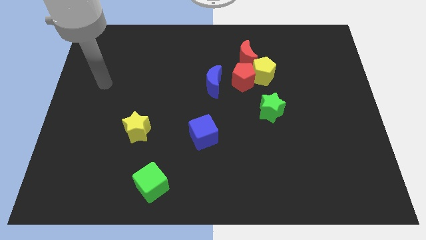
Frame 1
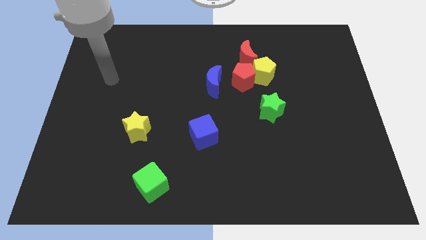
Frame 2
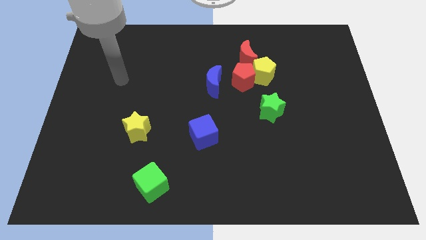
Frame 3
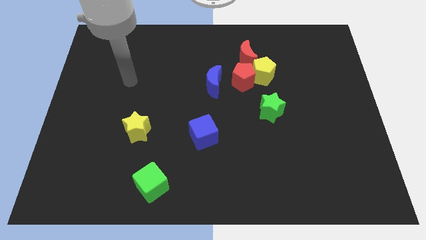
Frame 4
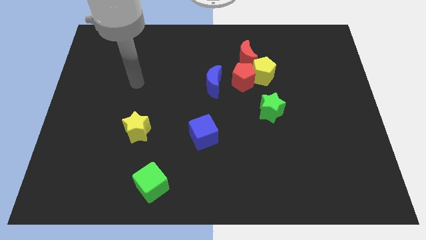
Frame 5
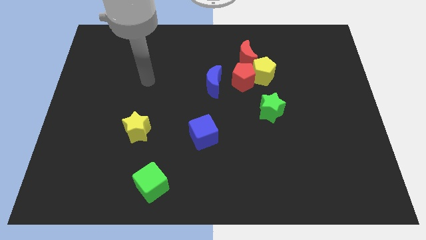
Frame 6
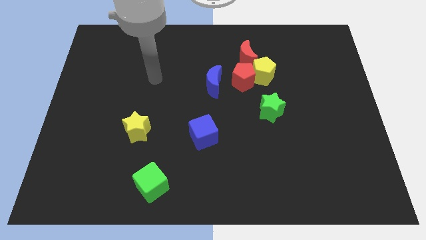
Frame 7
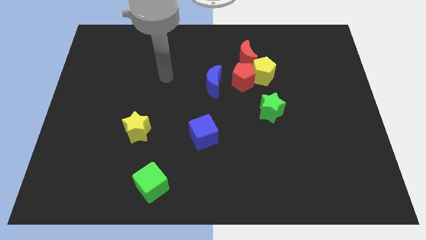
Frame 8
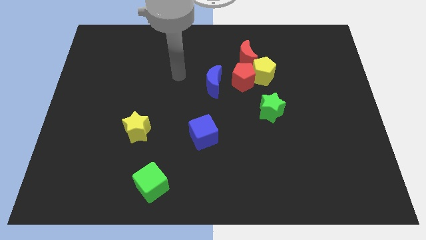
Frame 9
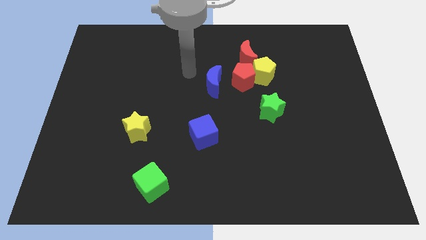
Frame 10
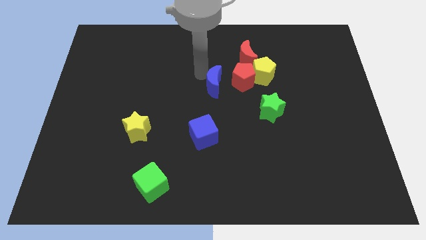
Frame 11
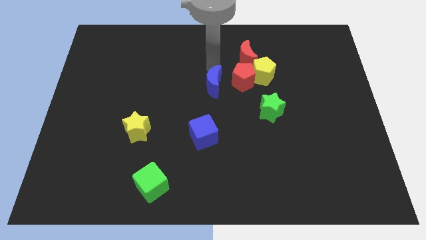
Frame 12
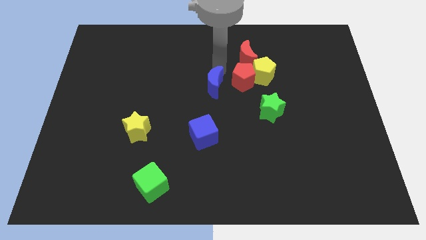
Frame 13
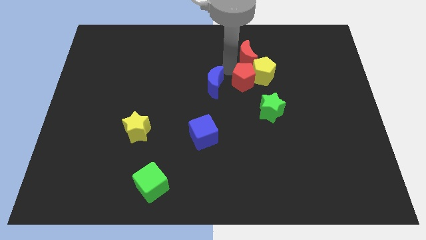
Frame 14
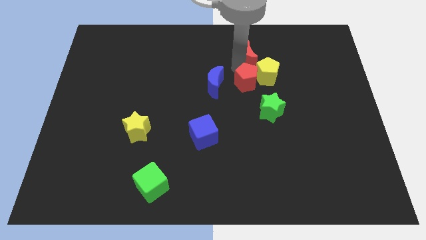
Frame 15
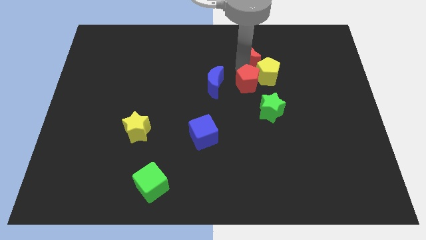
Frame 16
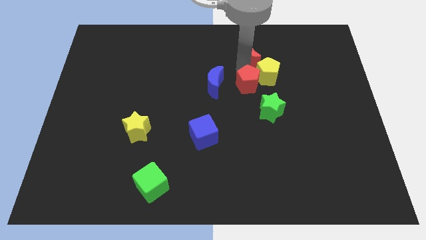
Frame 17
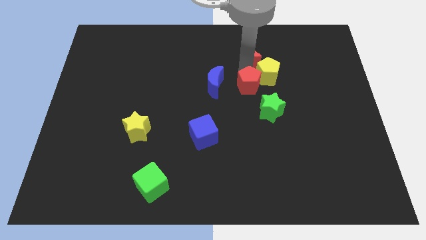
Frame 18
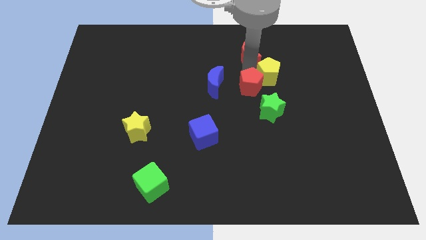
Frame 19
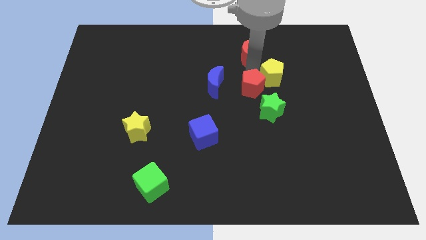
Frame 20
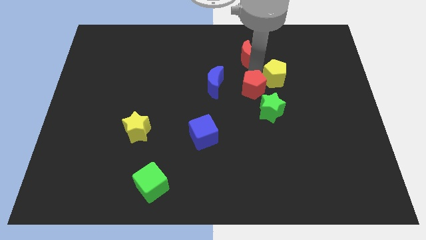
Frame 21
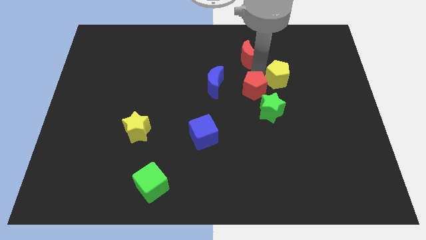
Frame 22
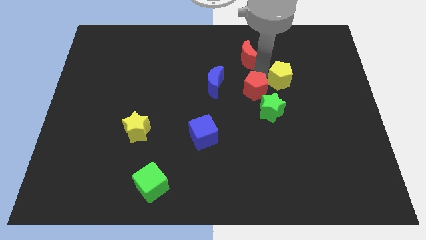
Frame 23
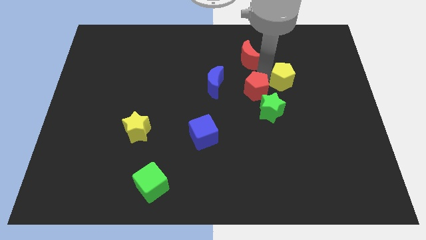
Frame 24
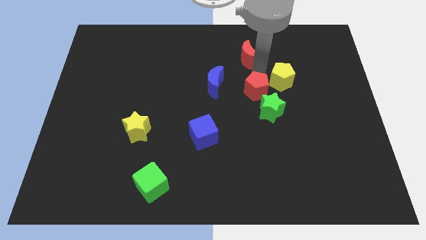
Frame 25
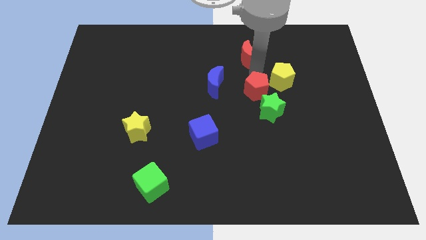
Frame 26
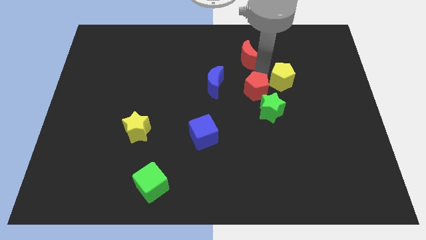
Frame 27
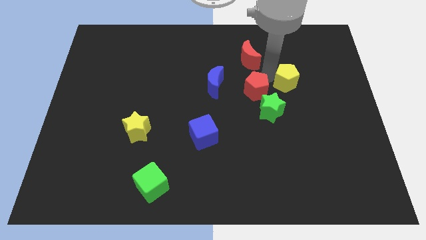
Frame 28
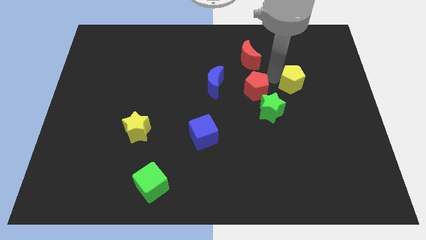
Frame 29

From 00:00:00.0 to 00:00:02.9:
separate the yellow pentagon from the red pentagon and red moon

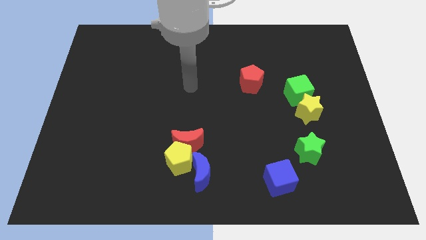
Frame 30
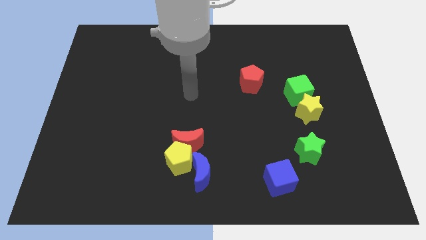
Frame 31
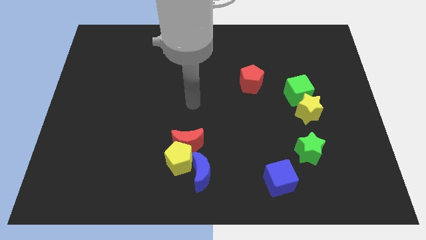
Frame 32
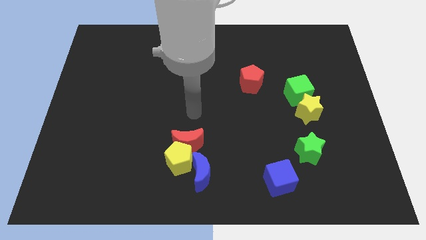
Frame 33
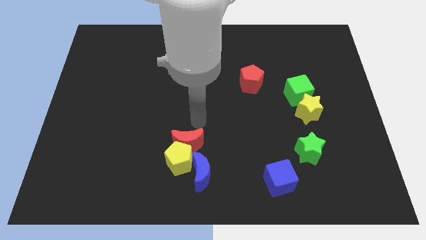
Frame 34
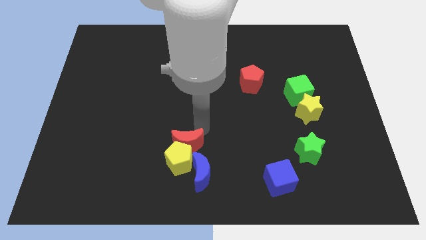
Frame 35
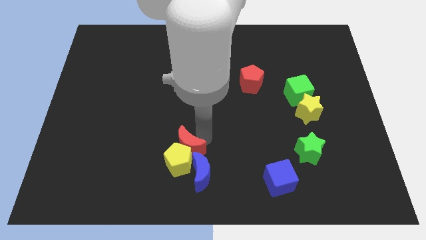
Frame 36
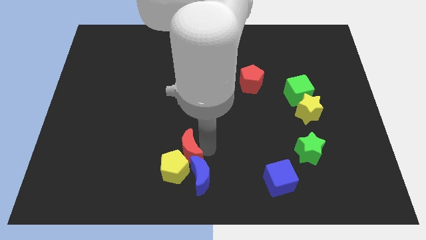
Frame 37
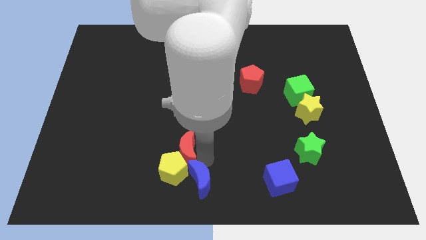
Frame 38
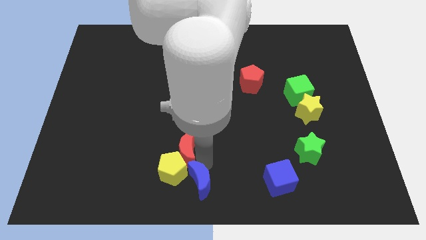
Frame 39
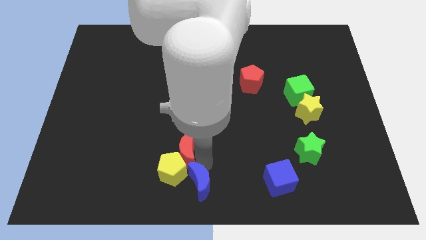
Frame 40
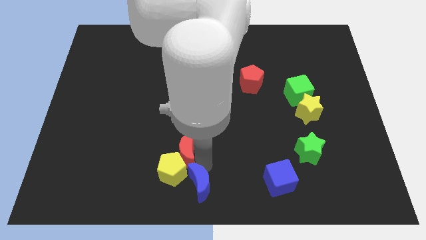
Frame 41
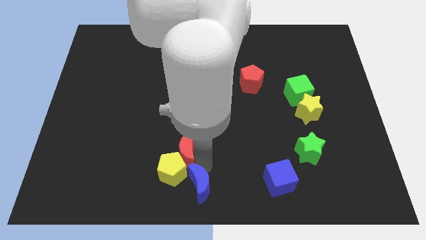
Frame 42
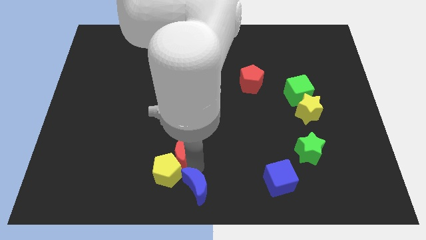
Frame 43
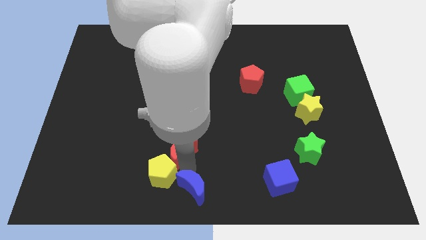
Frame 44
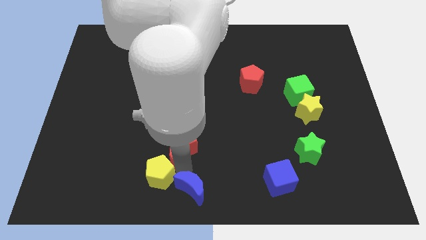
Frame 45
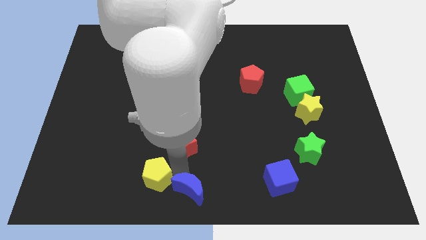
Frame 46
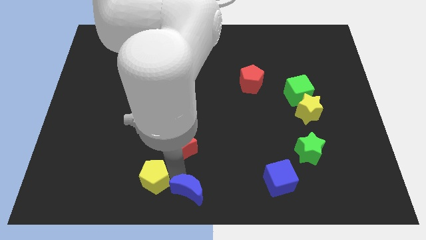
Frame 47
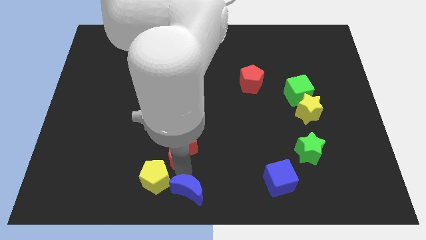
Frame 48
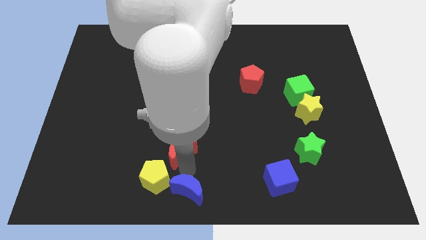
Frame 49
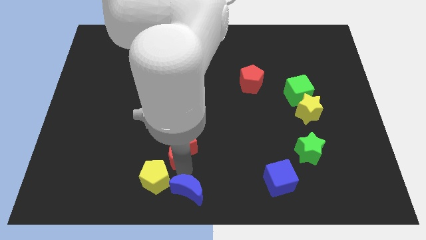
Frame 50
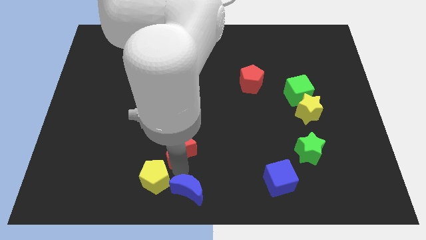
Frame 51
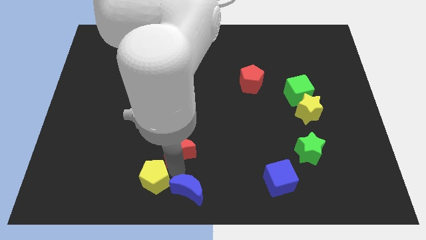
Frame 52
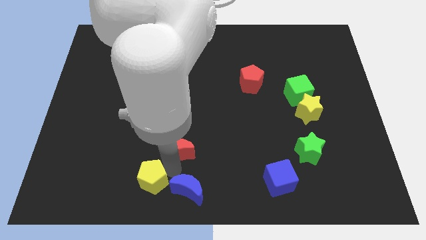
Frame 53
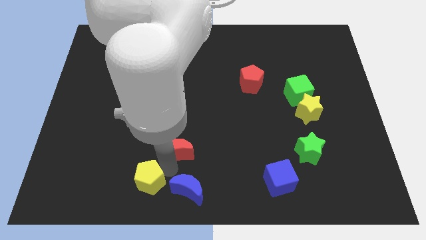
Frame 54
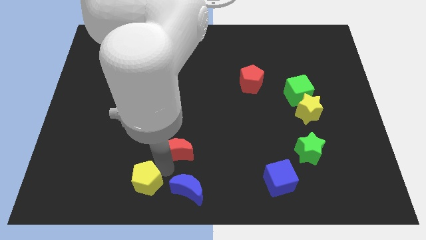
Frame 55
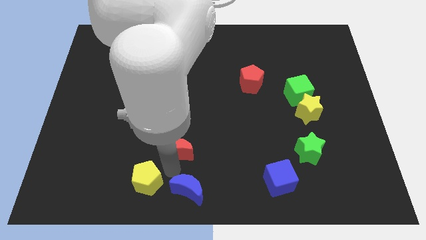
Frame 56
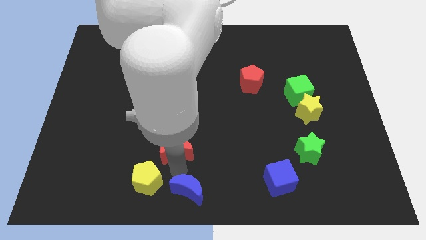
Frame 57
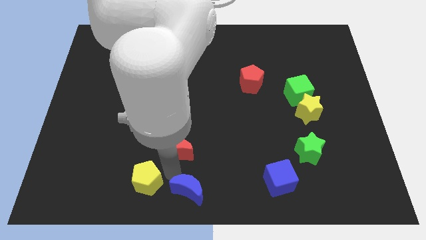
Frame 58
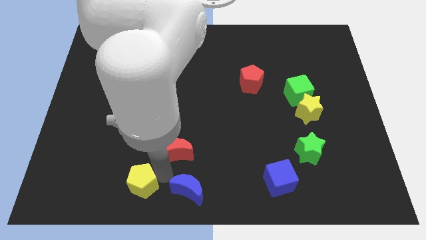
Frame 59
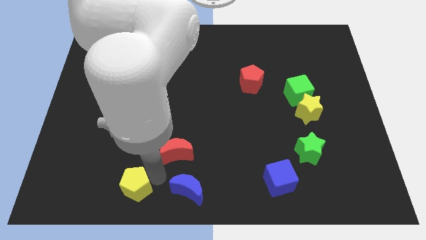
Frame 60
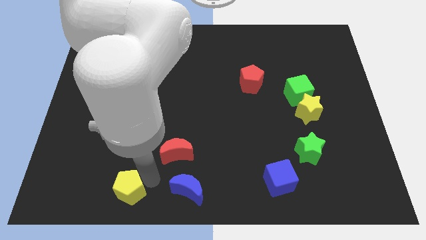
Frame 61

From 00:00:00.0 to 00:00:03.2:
move the yellow pentagon away from the red moon and blue moon

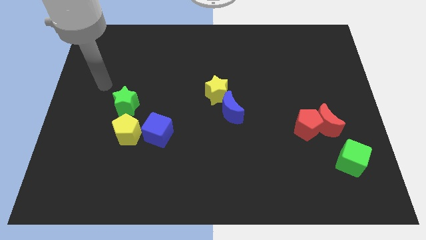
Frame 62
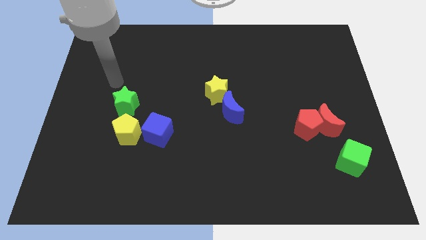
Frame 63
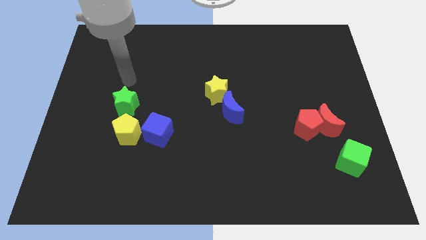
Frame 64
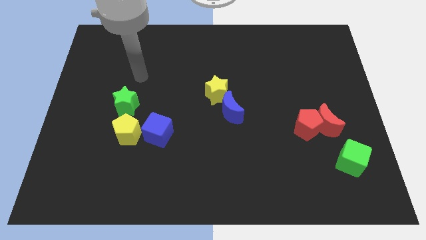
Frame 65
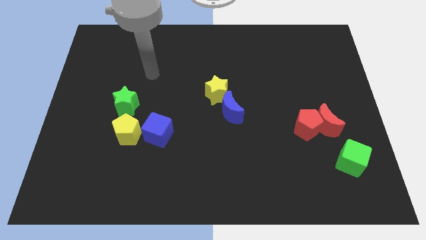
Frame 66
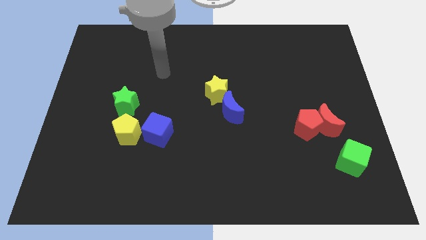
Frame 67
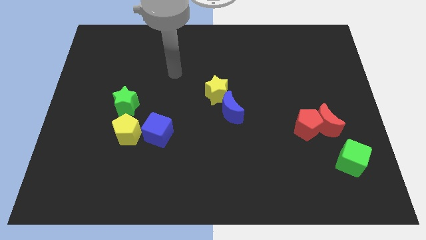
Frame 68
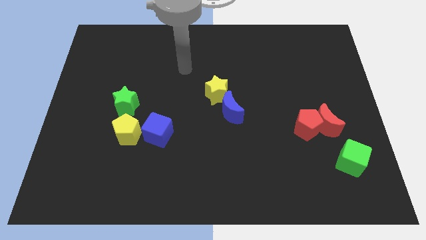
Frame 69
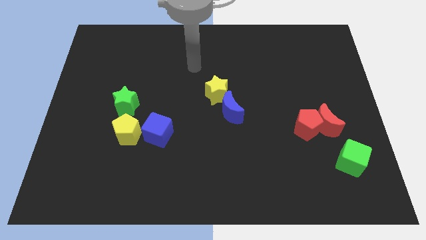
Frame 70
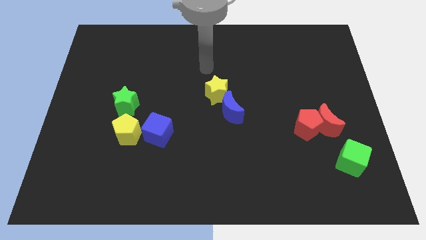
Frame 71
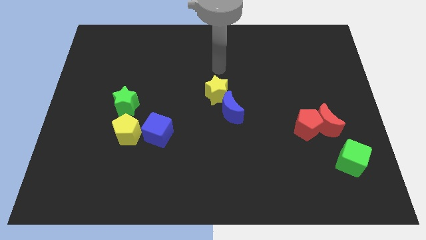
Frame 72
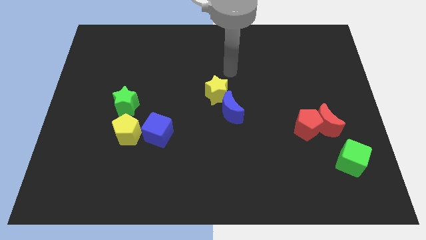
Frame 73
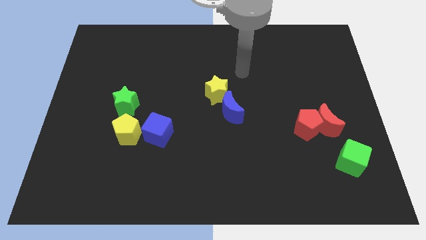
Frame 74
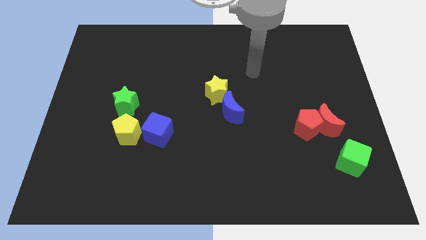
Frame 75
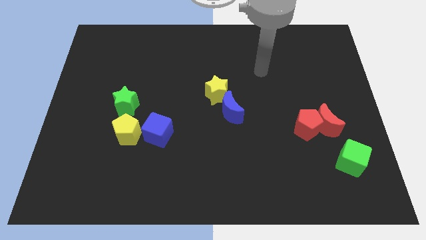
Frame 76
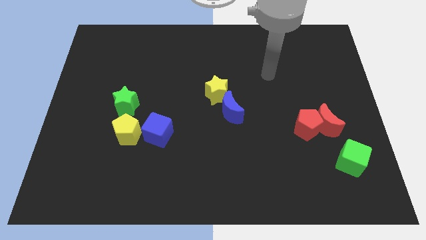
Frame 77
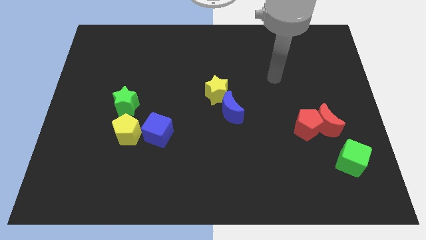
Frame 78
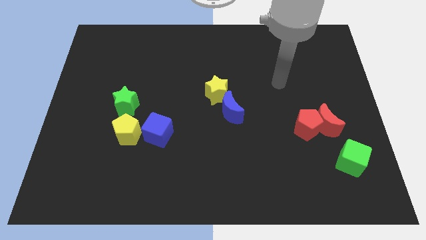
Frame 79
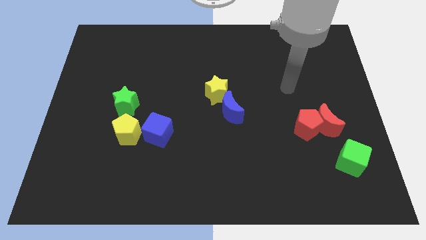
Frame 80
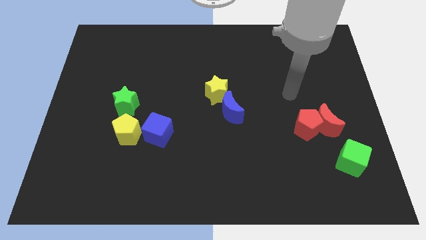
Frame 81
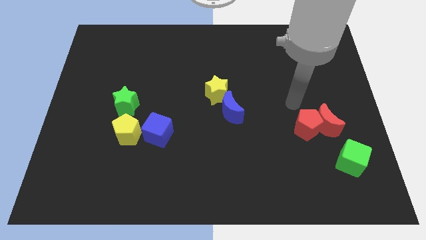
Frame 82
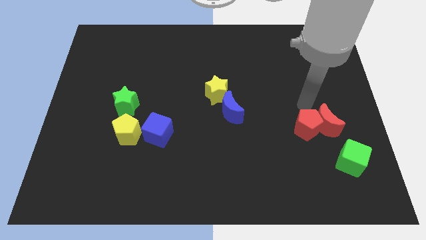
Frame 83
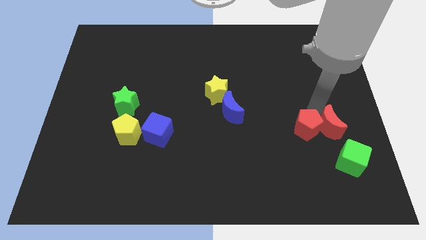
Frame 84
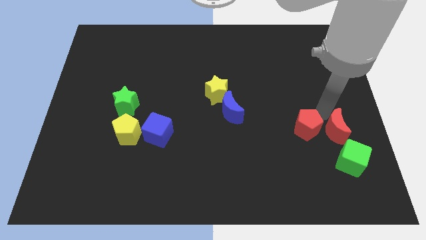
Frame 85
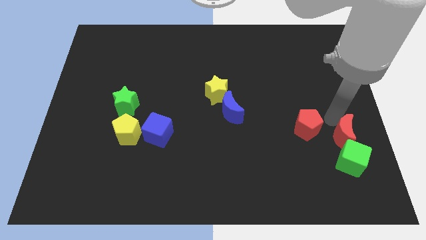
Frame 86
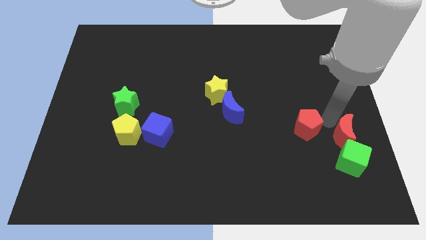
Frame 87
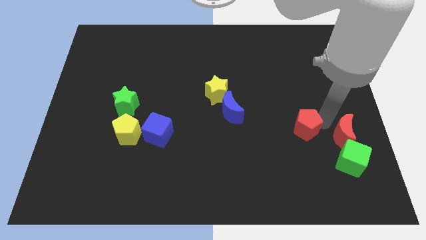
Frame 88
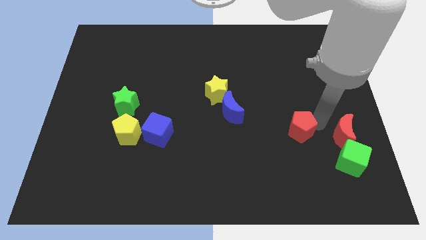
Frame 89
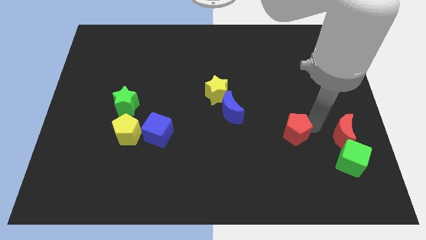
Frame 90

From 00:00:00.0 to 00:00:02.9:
move the red pentagon away from the red moon

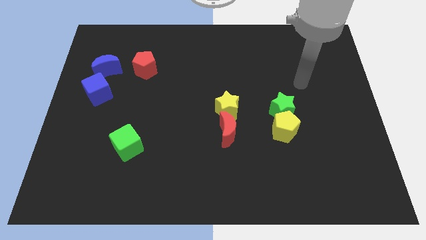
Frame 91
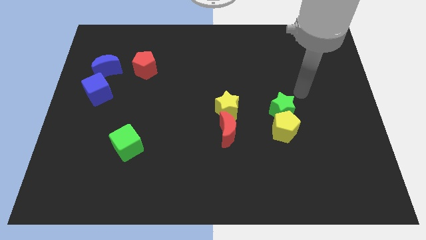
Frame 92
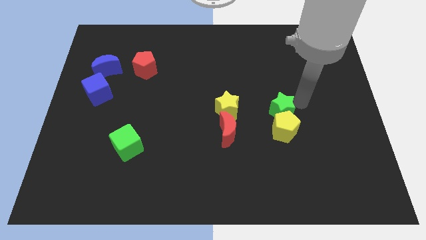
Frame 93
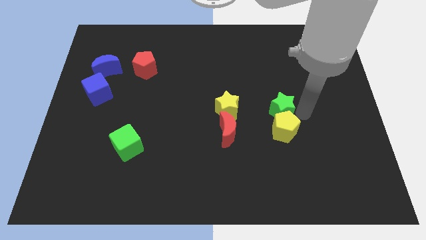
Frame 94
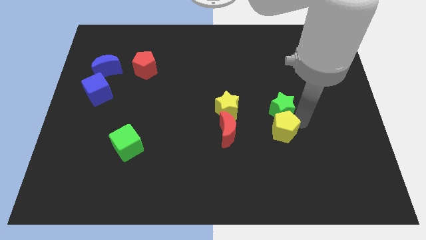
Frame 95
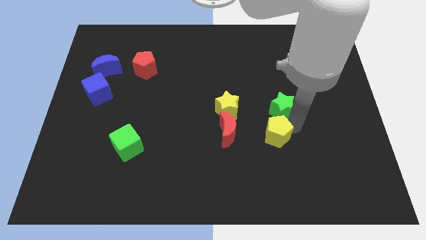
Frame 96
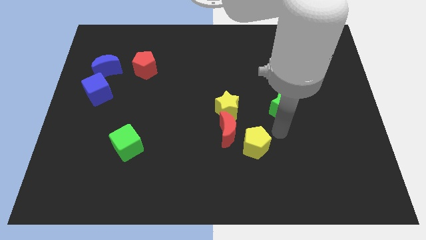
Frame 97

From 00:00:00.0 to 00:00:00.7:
pull the green star apart from the yellow pentagon
